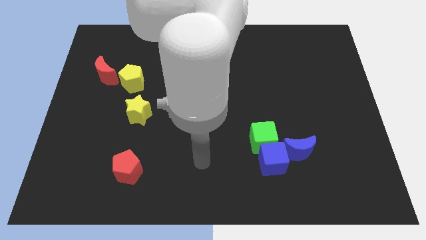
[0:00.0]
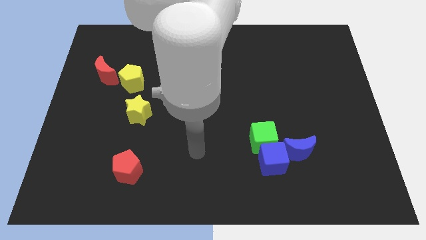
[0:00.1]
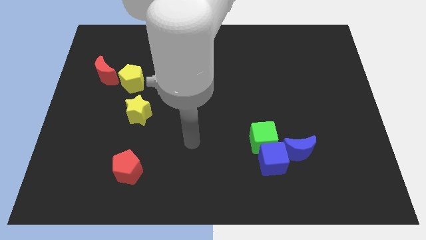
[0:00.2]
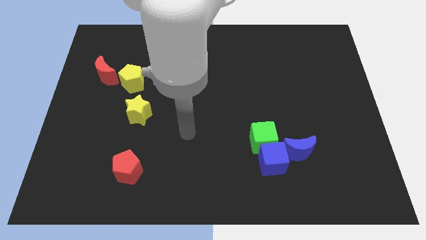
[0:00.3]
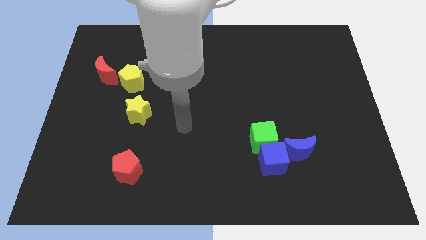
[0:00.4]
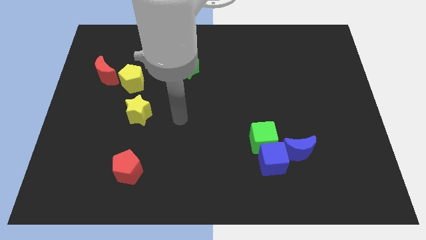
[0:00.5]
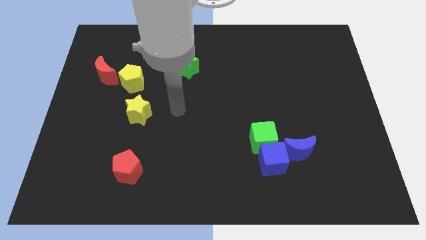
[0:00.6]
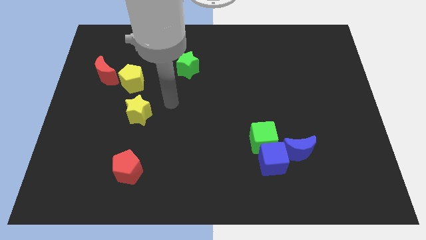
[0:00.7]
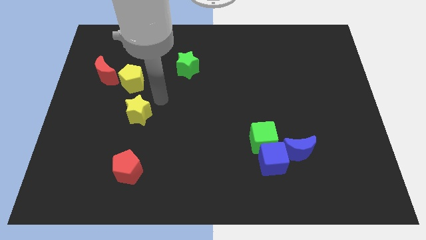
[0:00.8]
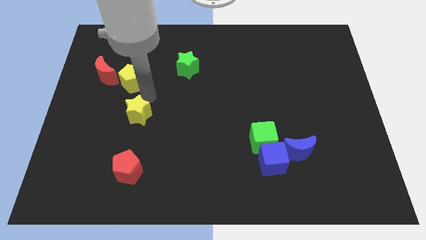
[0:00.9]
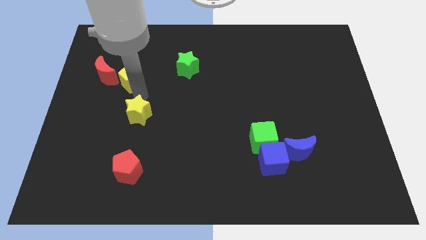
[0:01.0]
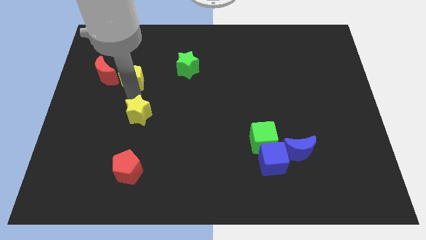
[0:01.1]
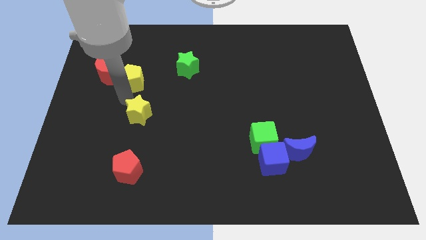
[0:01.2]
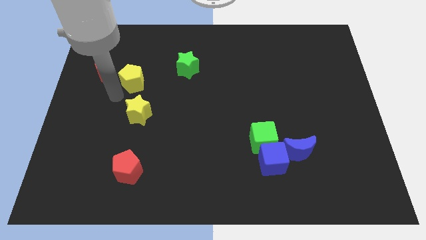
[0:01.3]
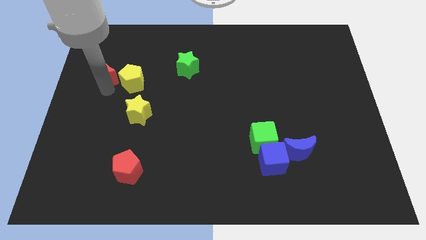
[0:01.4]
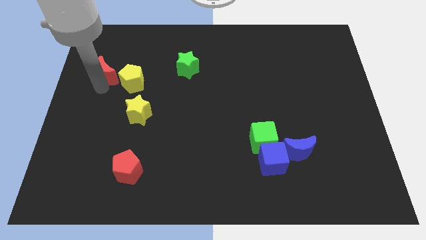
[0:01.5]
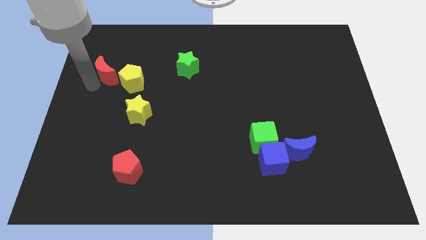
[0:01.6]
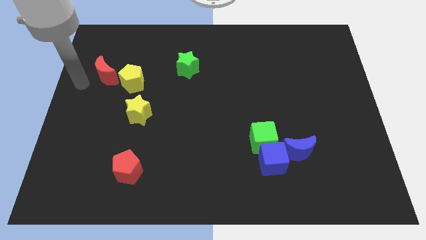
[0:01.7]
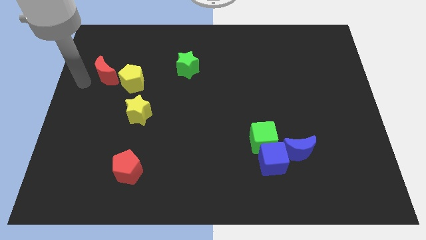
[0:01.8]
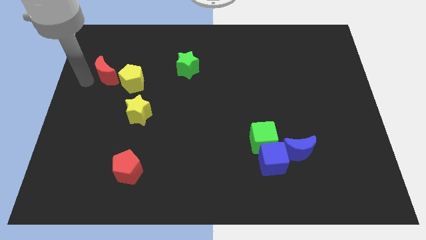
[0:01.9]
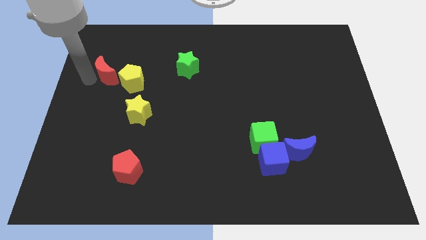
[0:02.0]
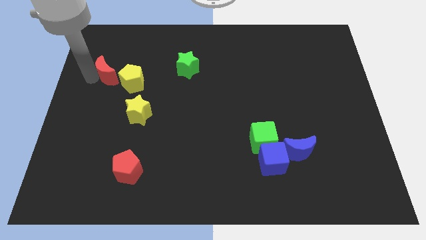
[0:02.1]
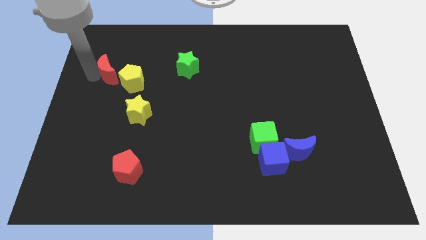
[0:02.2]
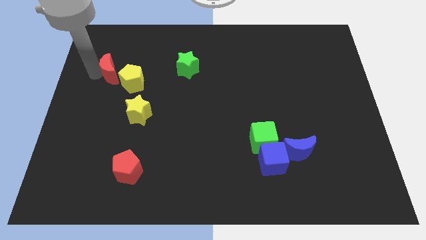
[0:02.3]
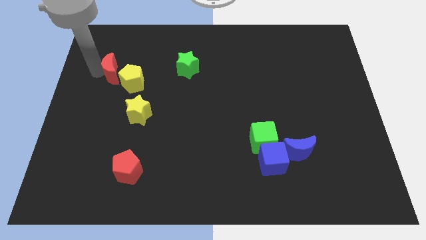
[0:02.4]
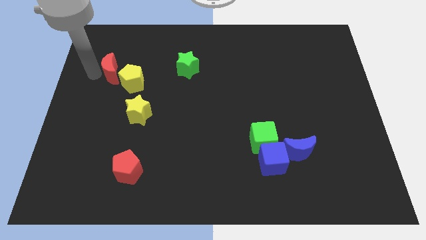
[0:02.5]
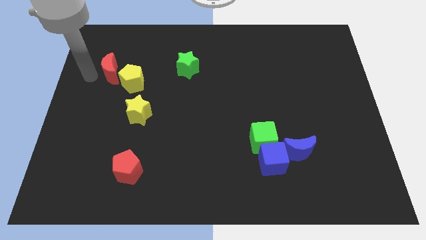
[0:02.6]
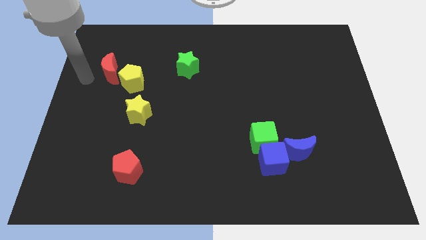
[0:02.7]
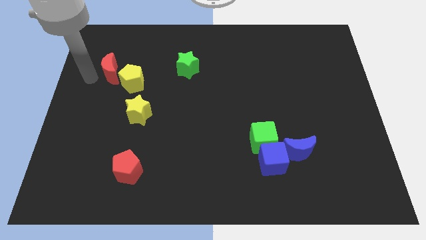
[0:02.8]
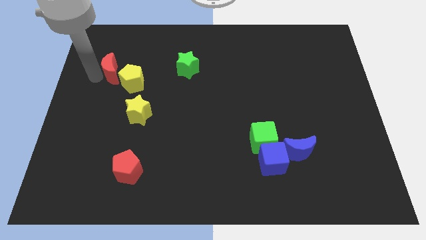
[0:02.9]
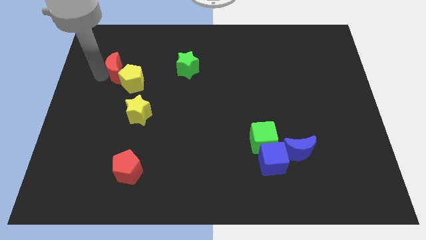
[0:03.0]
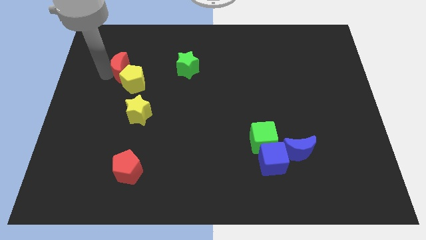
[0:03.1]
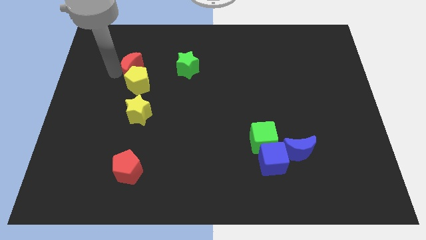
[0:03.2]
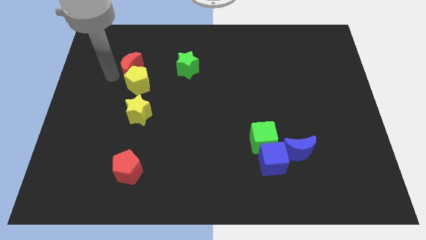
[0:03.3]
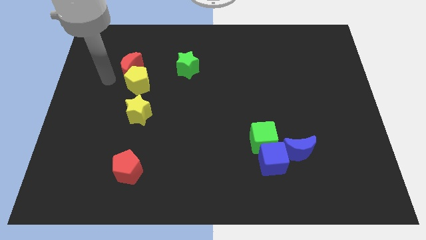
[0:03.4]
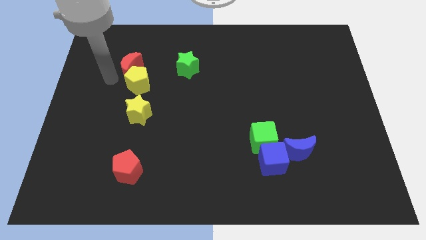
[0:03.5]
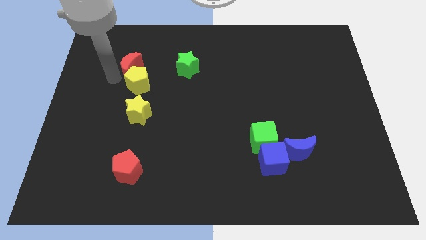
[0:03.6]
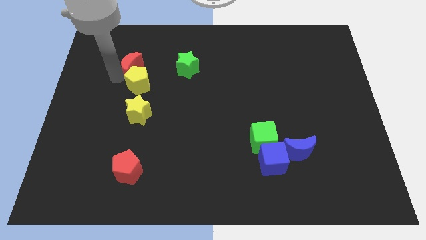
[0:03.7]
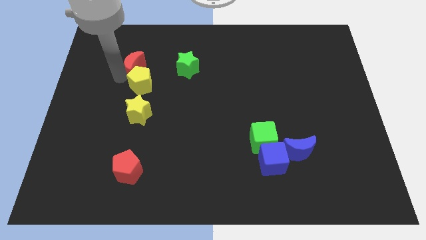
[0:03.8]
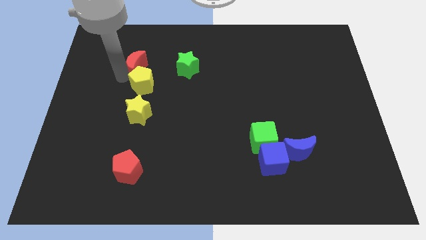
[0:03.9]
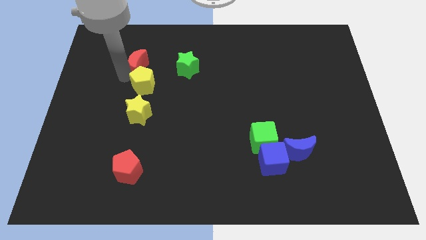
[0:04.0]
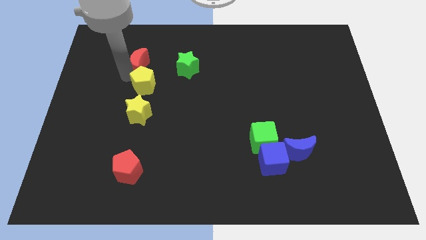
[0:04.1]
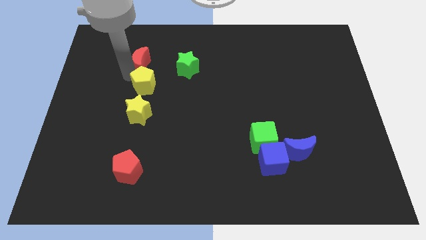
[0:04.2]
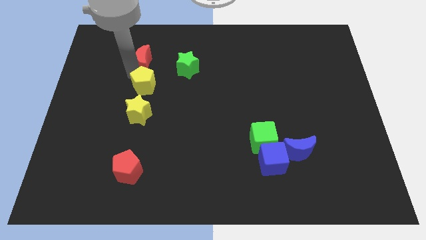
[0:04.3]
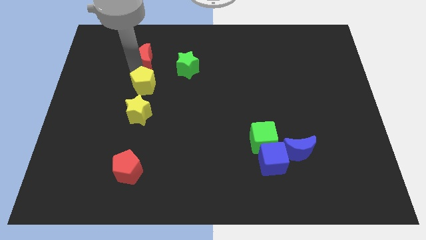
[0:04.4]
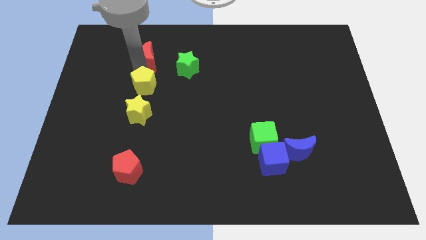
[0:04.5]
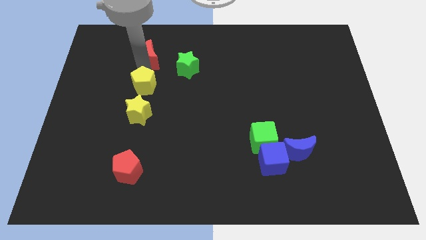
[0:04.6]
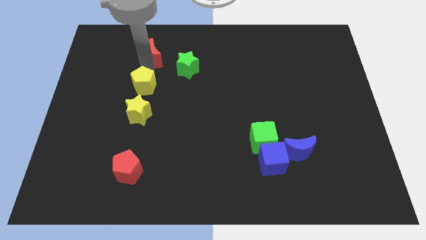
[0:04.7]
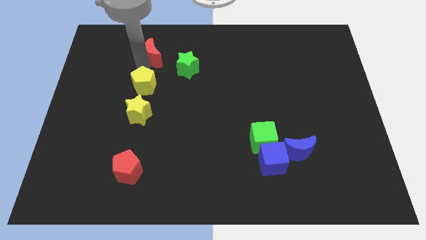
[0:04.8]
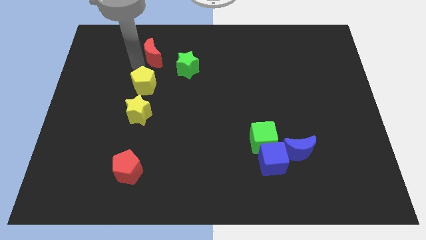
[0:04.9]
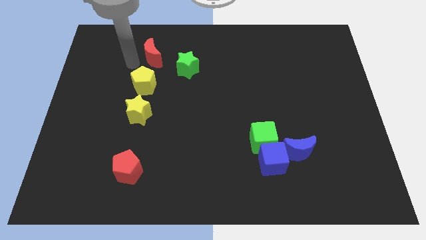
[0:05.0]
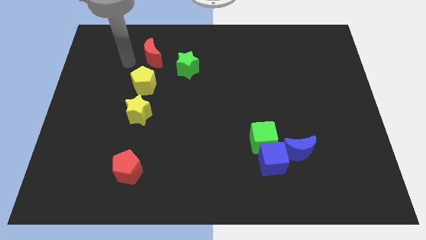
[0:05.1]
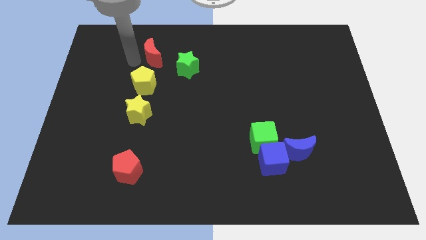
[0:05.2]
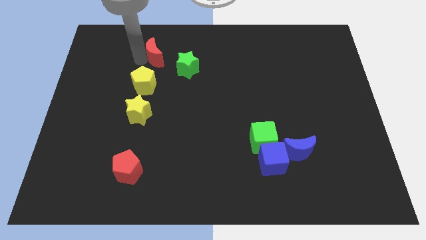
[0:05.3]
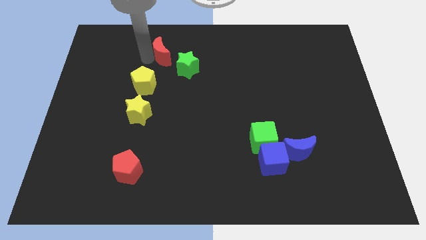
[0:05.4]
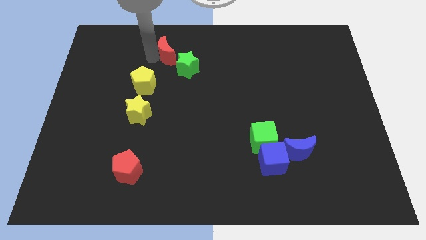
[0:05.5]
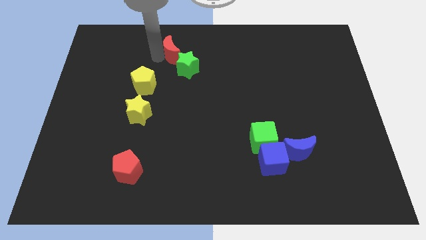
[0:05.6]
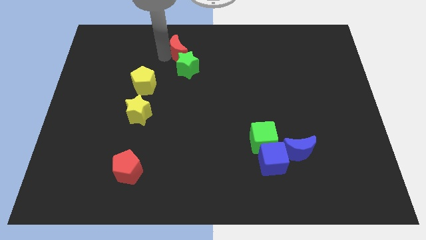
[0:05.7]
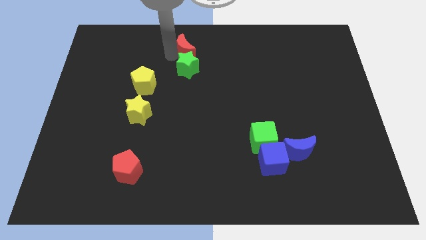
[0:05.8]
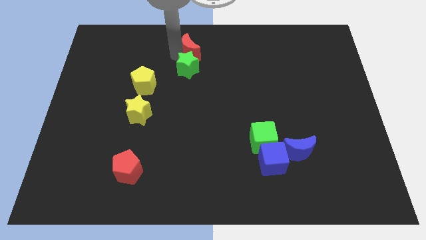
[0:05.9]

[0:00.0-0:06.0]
move the red moon to the top side
